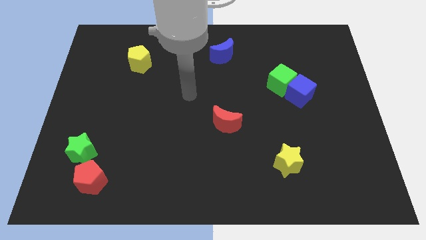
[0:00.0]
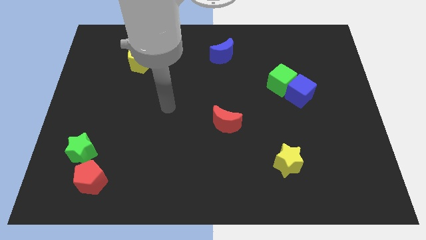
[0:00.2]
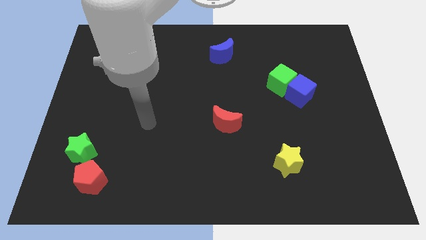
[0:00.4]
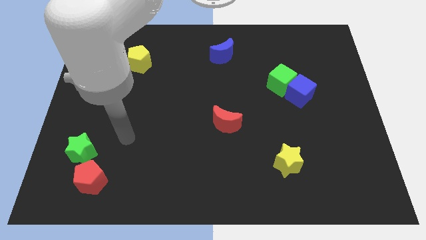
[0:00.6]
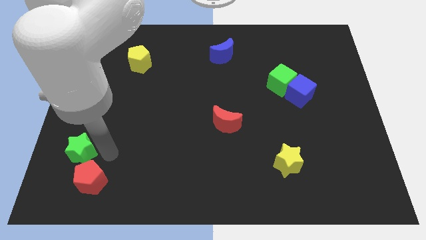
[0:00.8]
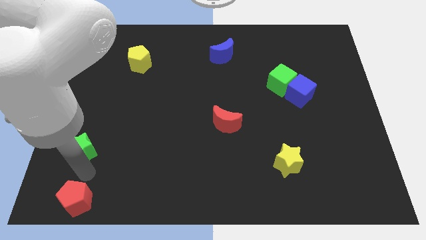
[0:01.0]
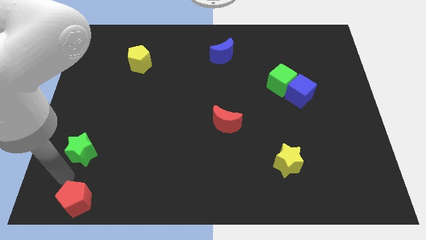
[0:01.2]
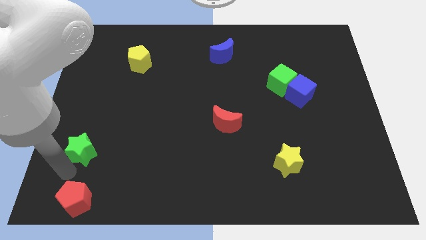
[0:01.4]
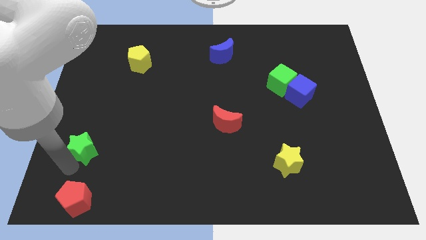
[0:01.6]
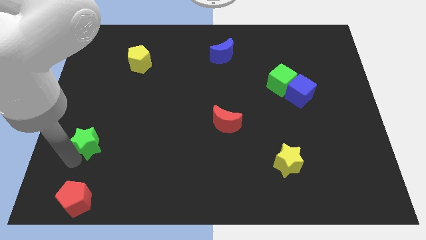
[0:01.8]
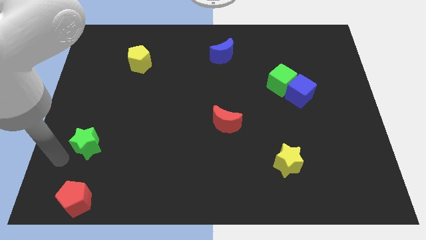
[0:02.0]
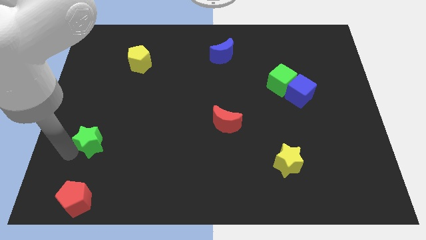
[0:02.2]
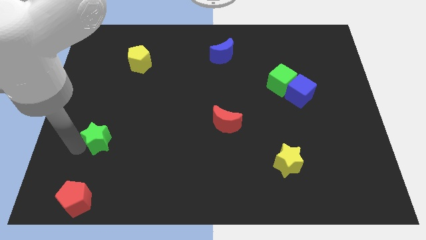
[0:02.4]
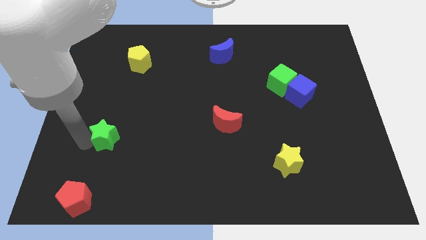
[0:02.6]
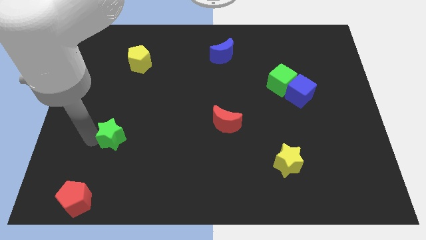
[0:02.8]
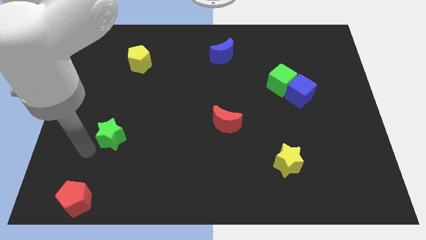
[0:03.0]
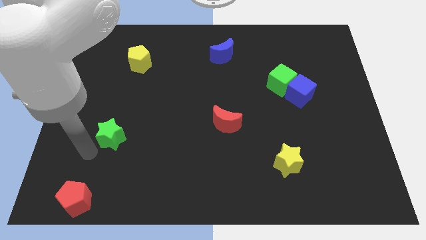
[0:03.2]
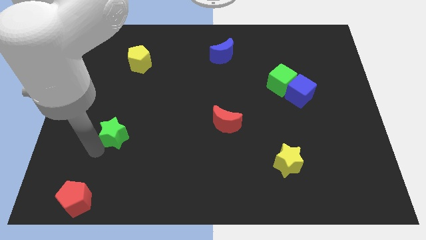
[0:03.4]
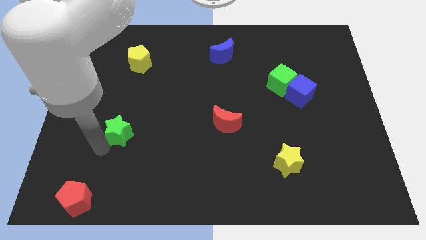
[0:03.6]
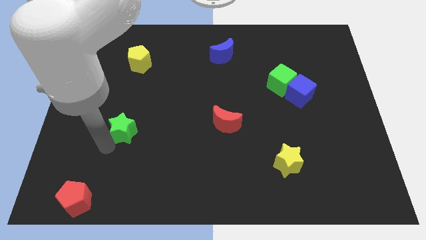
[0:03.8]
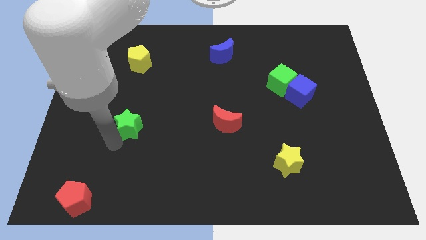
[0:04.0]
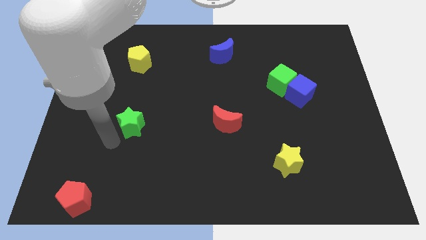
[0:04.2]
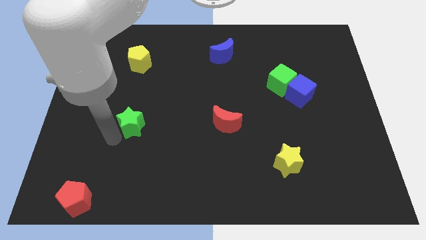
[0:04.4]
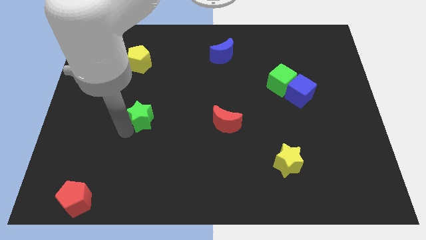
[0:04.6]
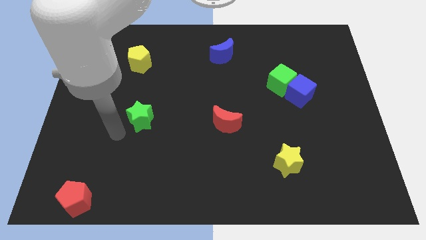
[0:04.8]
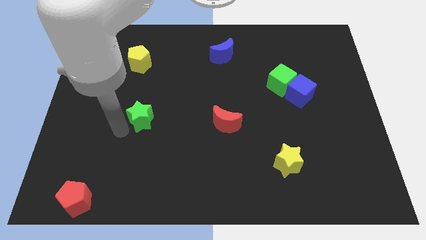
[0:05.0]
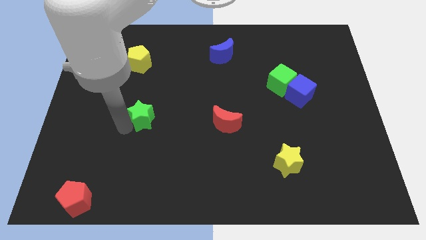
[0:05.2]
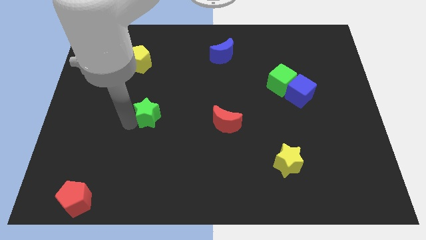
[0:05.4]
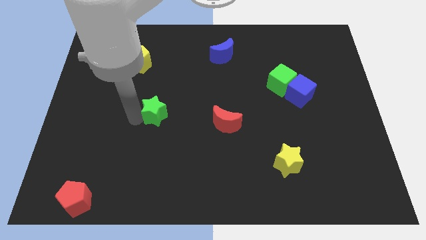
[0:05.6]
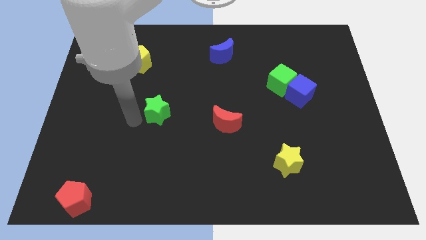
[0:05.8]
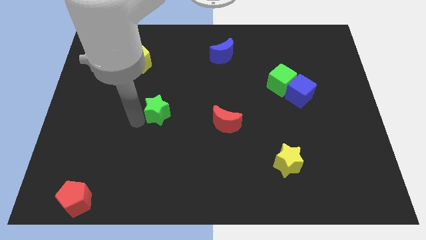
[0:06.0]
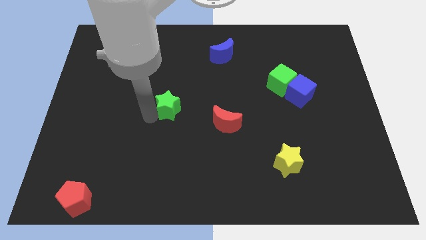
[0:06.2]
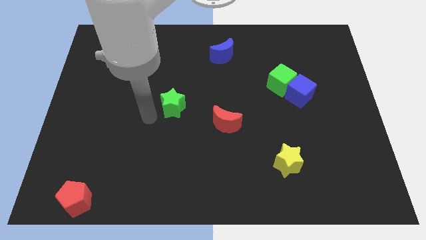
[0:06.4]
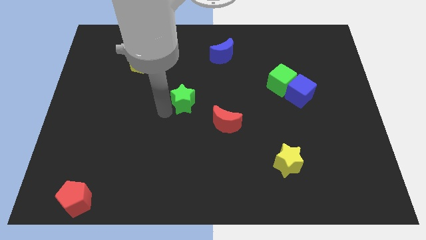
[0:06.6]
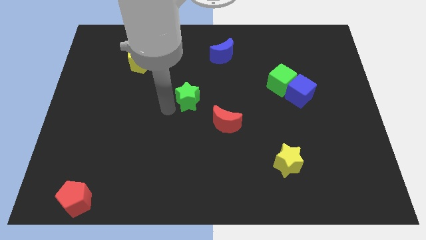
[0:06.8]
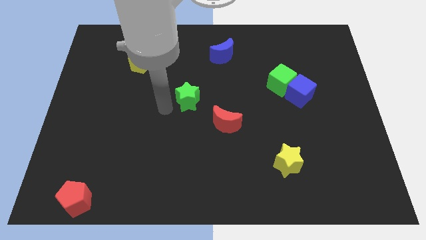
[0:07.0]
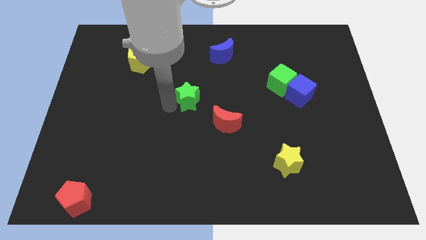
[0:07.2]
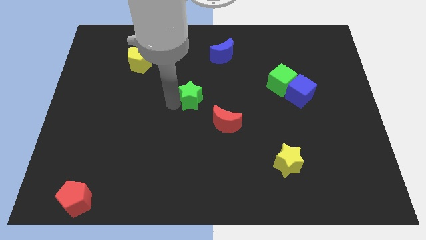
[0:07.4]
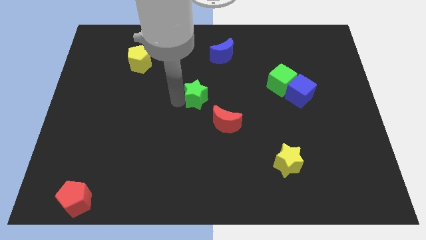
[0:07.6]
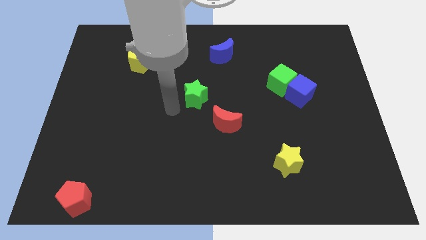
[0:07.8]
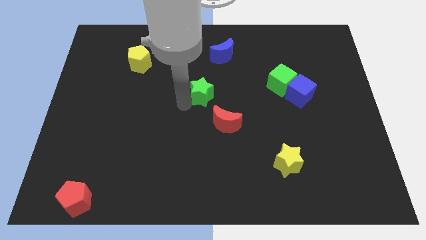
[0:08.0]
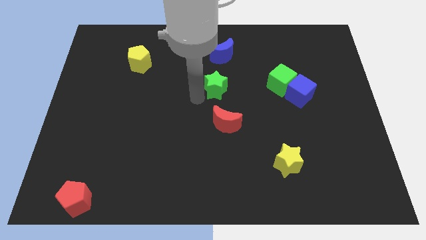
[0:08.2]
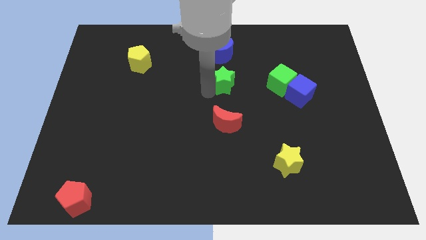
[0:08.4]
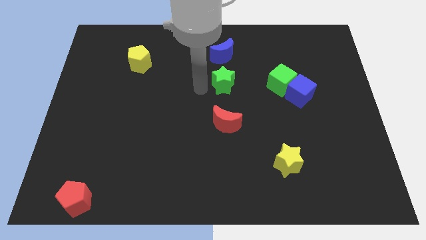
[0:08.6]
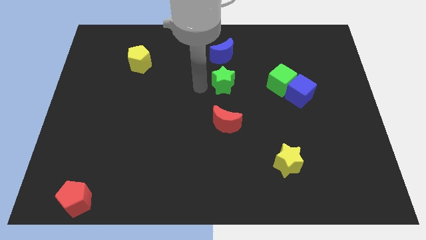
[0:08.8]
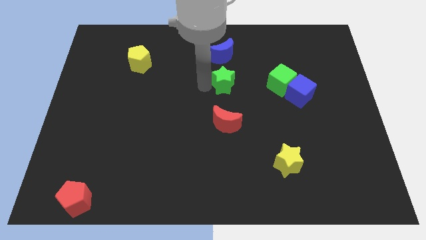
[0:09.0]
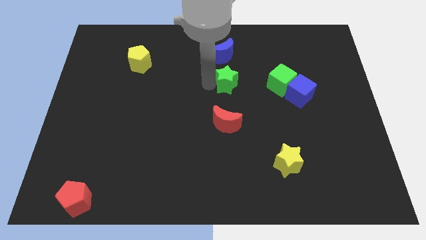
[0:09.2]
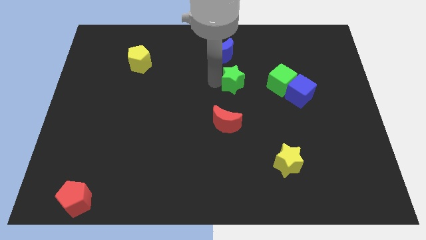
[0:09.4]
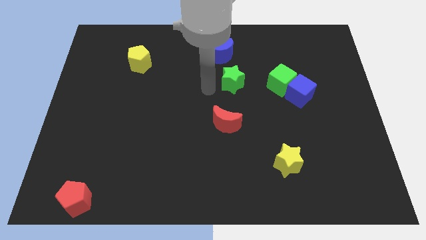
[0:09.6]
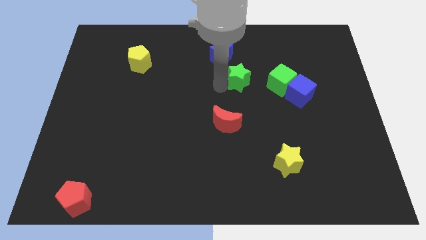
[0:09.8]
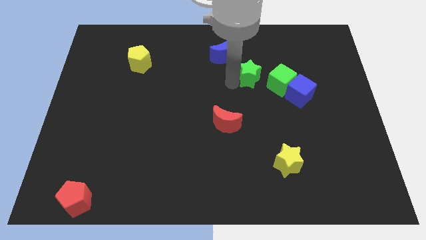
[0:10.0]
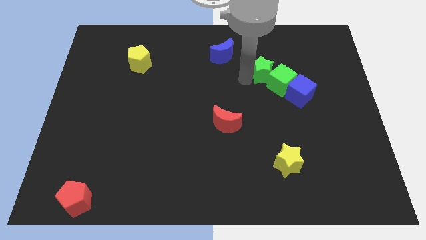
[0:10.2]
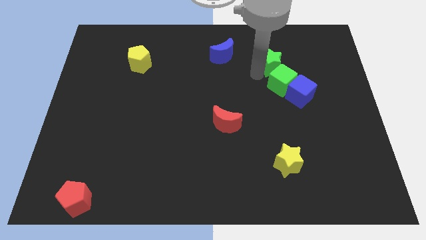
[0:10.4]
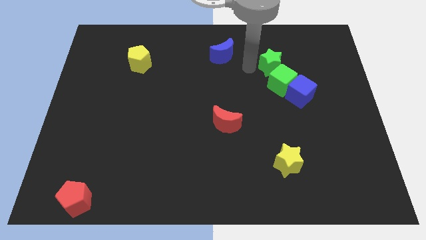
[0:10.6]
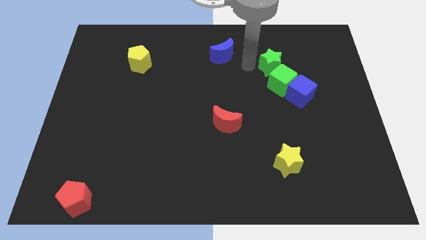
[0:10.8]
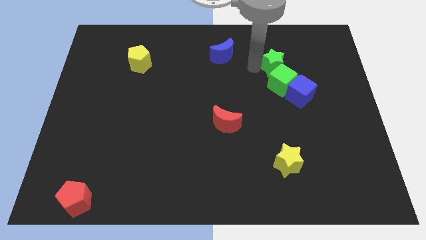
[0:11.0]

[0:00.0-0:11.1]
put the green star to the top right of the green cube

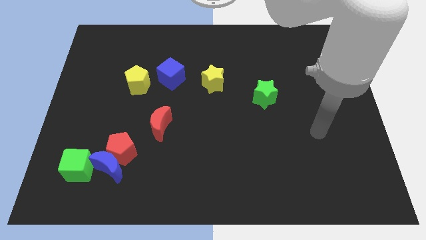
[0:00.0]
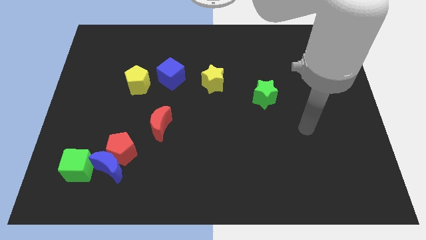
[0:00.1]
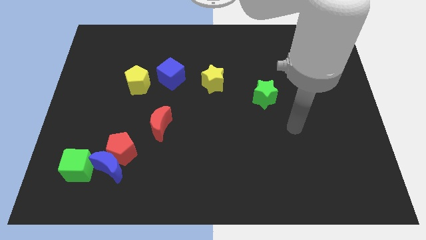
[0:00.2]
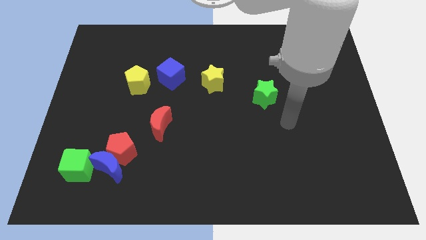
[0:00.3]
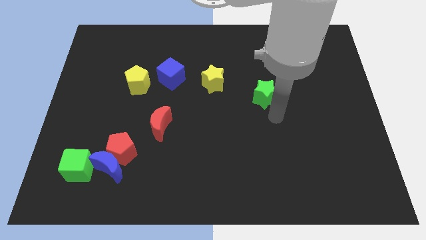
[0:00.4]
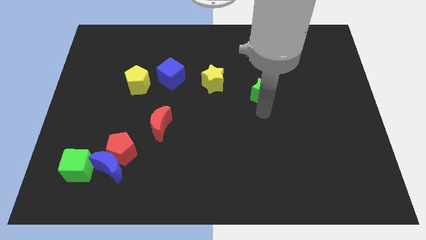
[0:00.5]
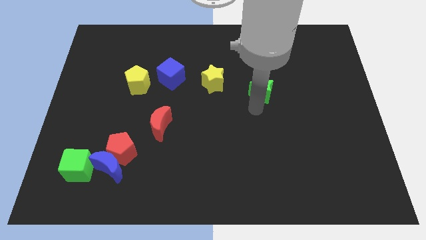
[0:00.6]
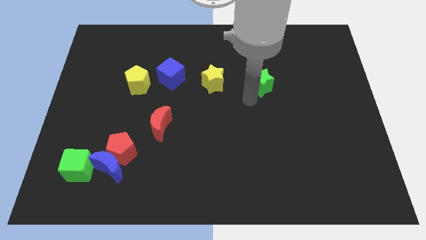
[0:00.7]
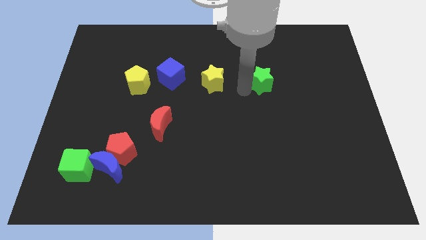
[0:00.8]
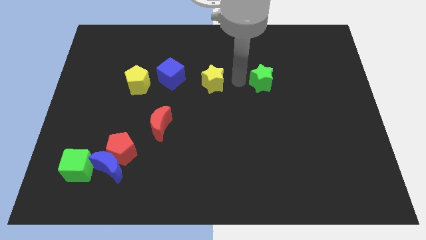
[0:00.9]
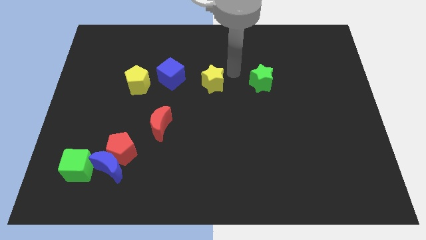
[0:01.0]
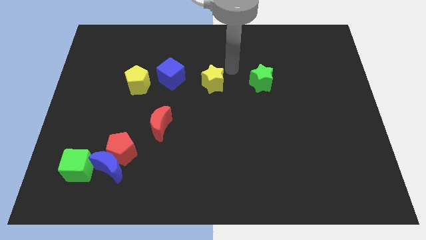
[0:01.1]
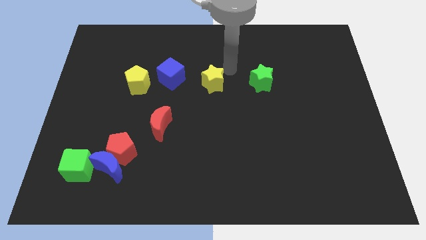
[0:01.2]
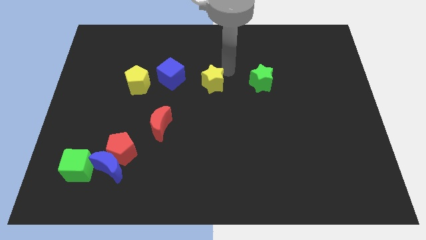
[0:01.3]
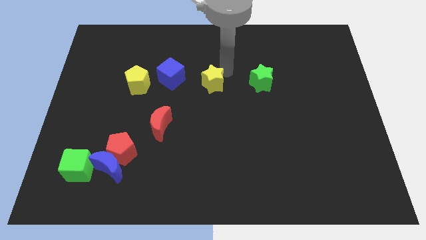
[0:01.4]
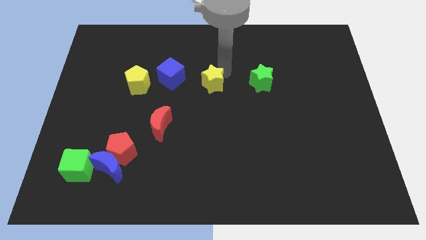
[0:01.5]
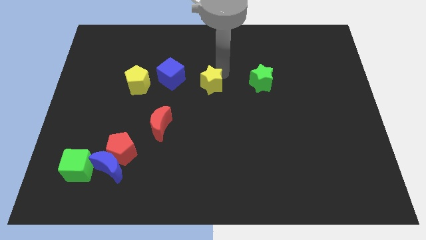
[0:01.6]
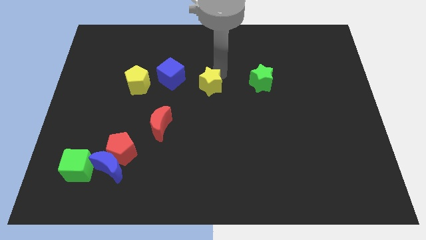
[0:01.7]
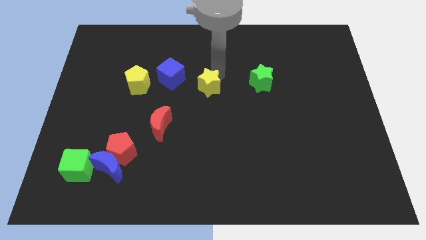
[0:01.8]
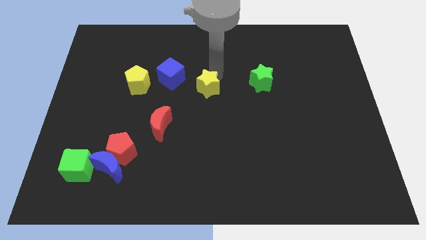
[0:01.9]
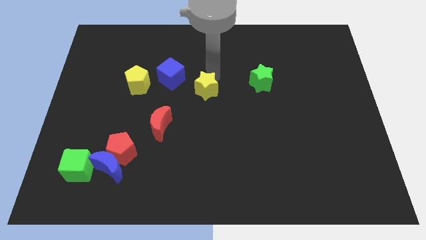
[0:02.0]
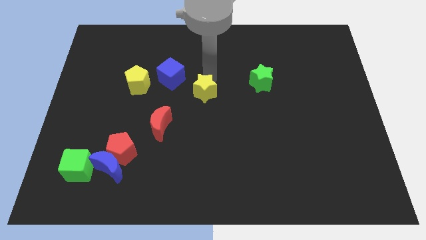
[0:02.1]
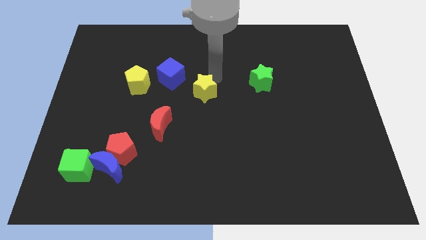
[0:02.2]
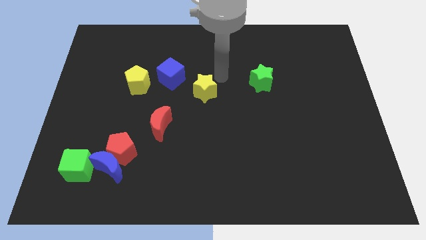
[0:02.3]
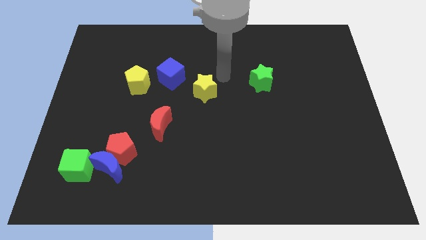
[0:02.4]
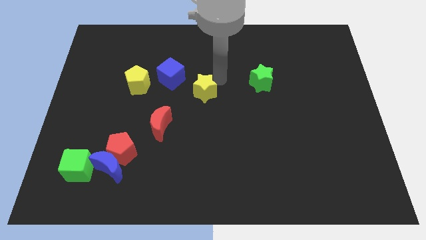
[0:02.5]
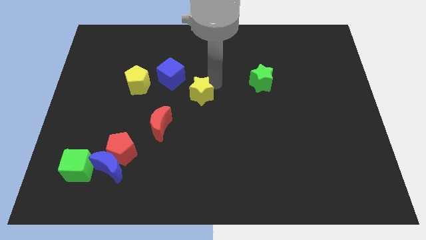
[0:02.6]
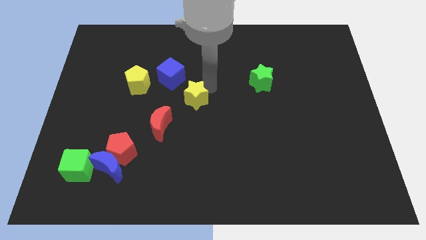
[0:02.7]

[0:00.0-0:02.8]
put the yellow star to the top right side of the red moon
